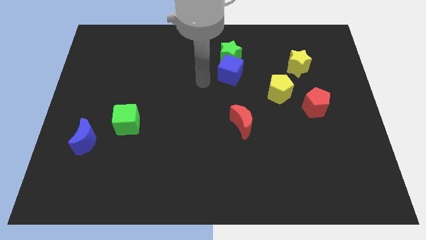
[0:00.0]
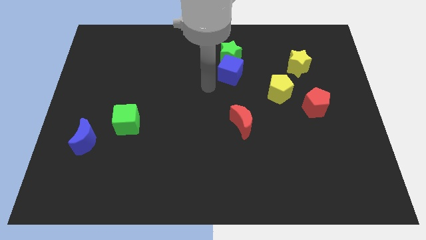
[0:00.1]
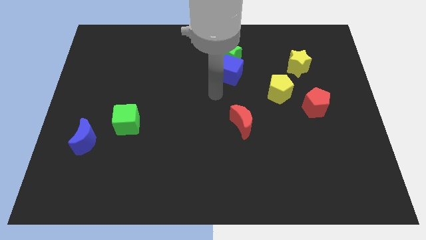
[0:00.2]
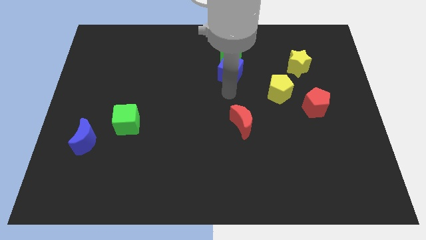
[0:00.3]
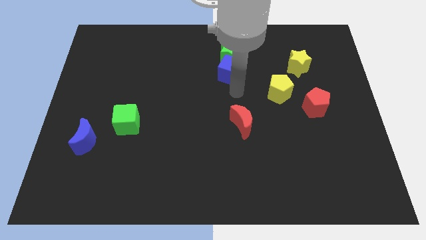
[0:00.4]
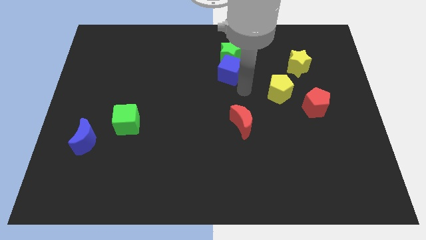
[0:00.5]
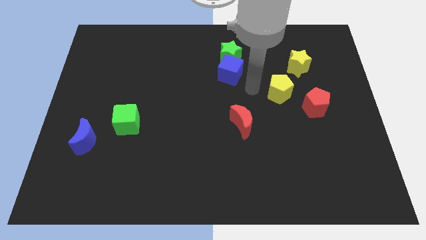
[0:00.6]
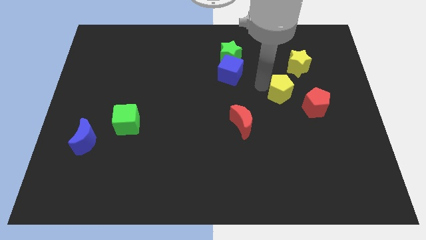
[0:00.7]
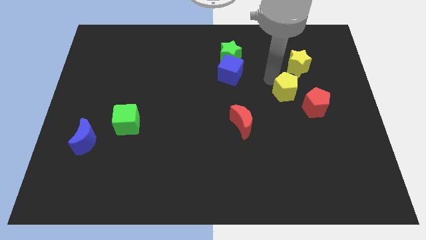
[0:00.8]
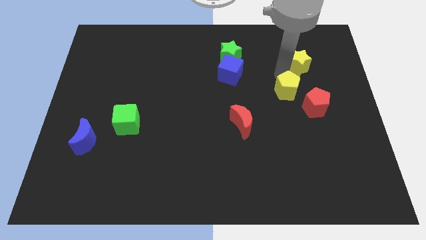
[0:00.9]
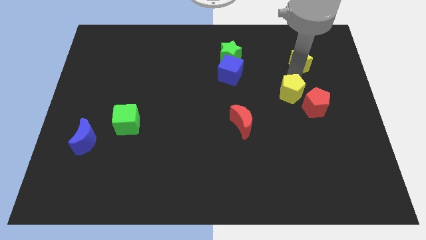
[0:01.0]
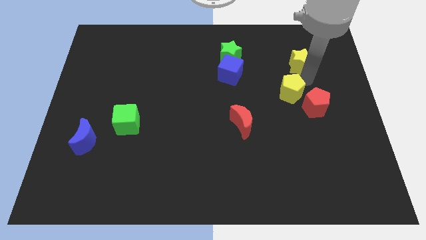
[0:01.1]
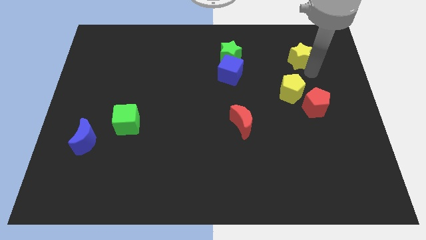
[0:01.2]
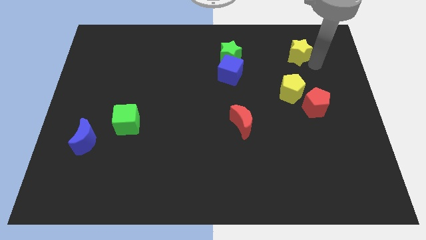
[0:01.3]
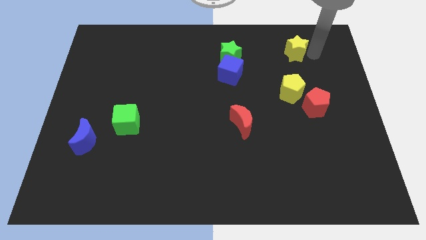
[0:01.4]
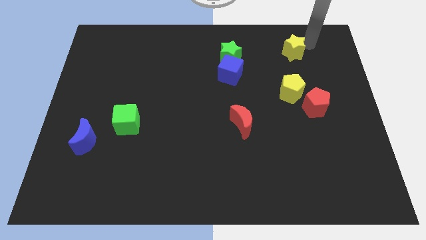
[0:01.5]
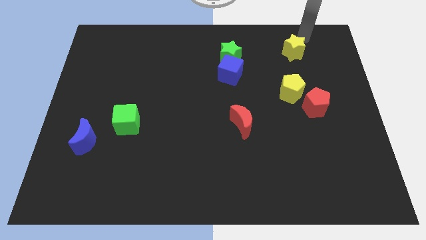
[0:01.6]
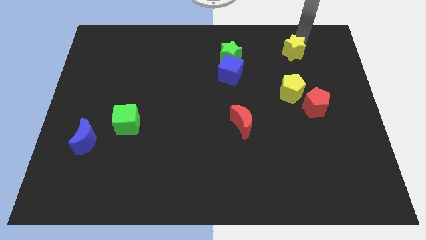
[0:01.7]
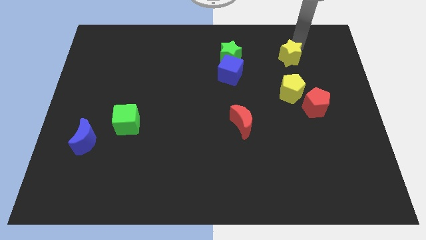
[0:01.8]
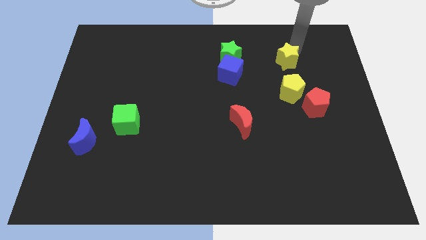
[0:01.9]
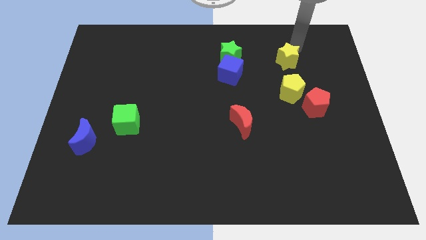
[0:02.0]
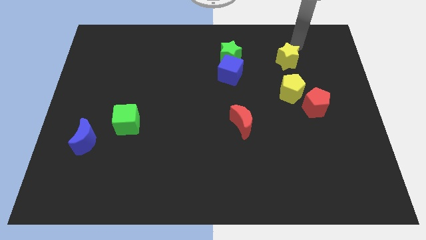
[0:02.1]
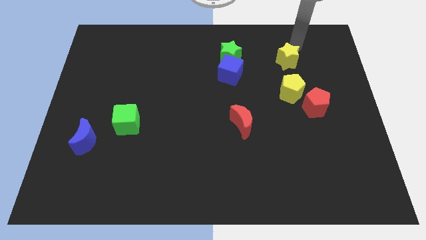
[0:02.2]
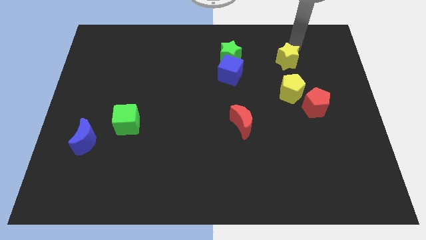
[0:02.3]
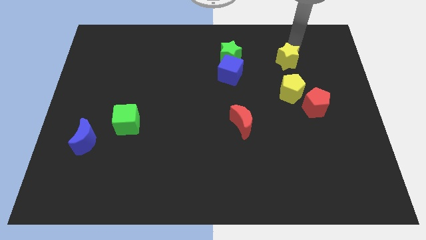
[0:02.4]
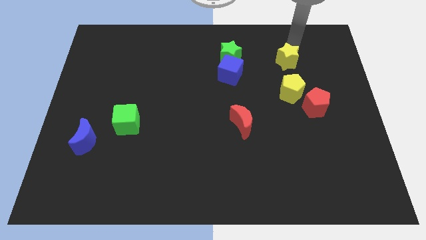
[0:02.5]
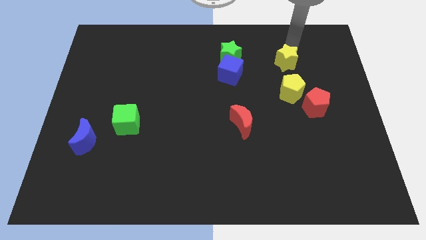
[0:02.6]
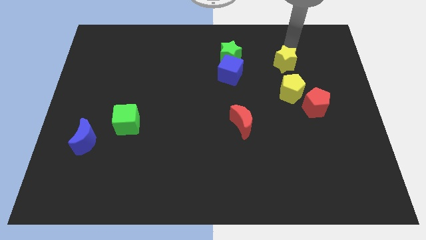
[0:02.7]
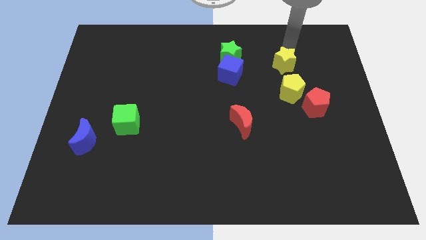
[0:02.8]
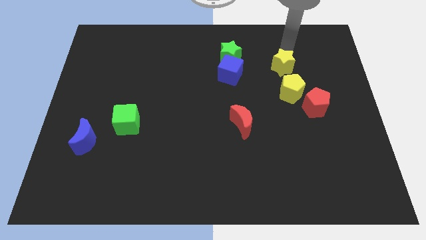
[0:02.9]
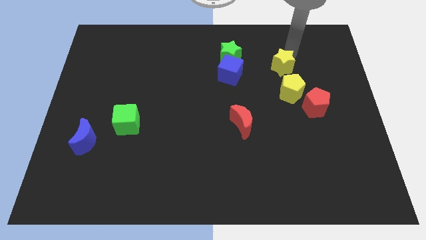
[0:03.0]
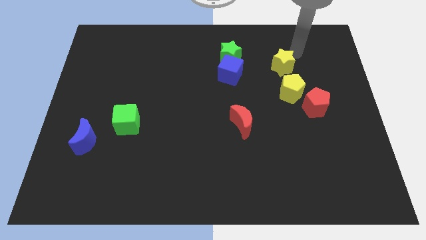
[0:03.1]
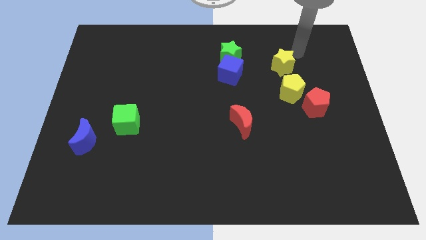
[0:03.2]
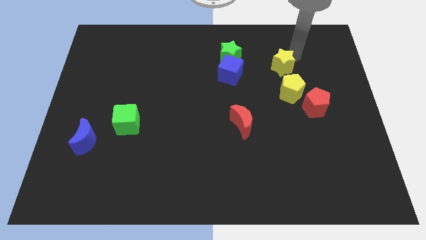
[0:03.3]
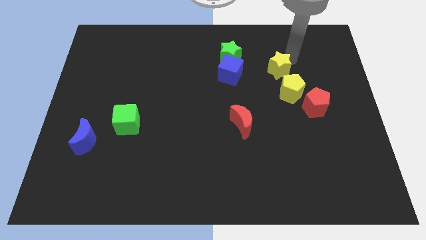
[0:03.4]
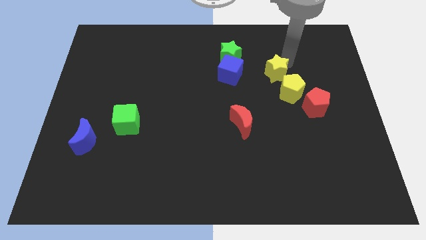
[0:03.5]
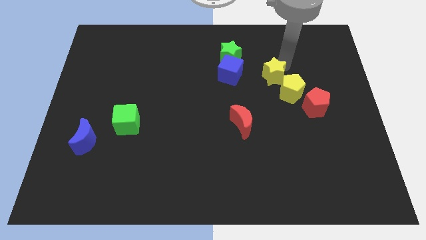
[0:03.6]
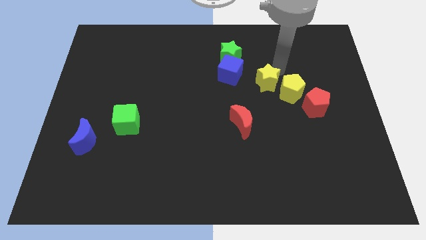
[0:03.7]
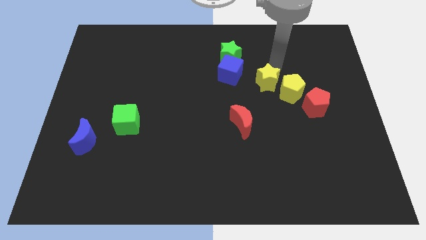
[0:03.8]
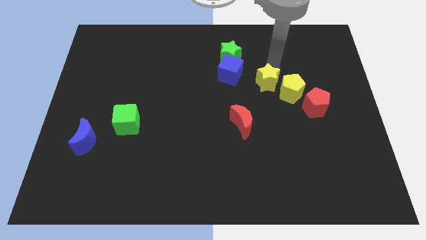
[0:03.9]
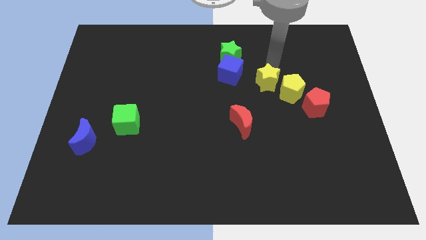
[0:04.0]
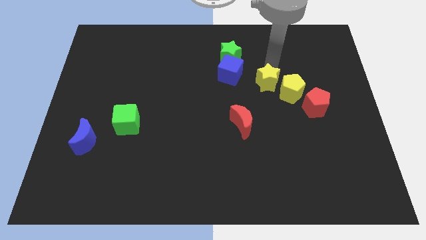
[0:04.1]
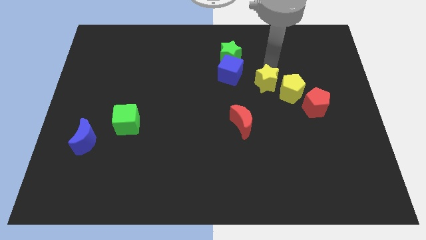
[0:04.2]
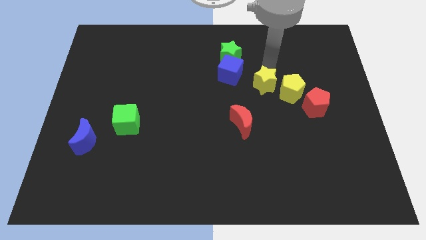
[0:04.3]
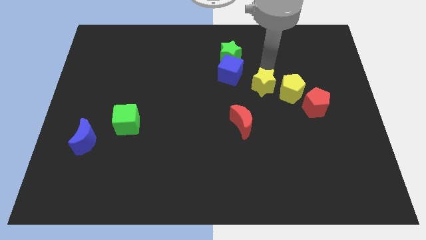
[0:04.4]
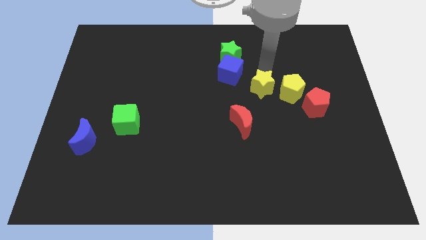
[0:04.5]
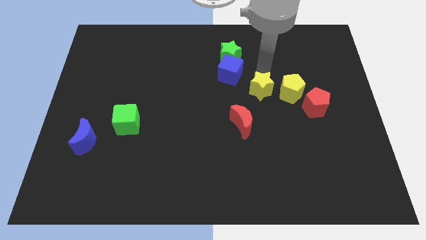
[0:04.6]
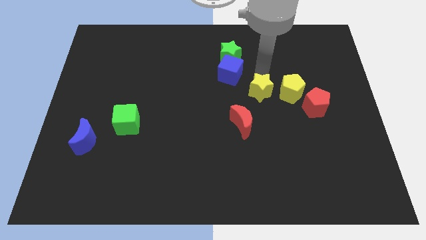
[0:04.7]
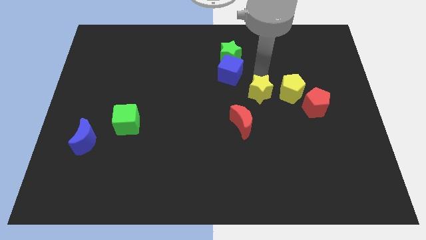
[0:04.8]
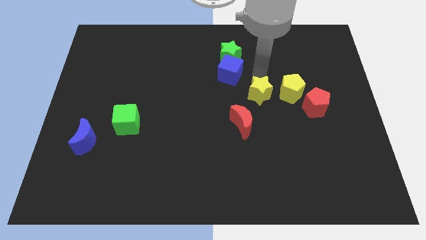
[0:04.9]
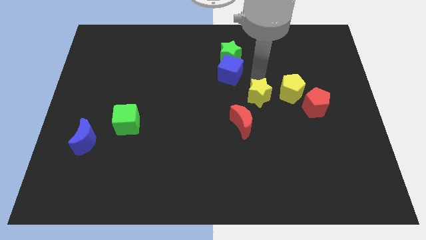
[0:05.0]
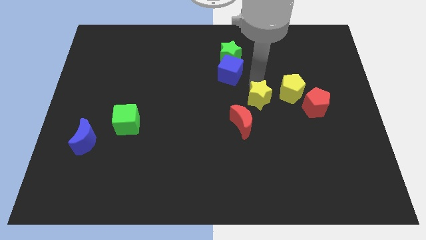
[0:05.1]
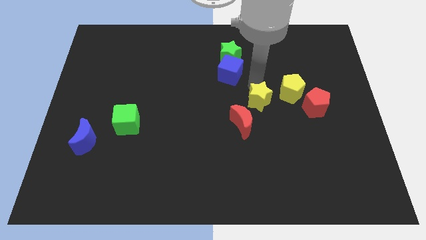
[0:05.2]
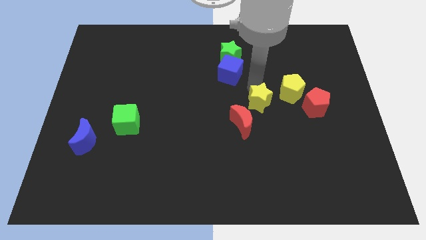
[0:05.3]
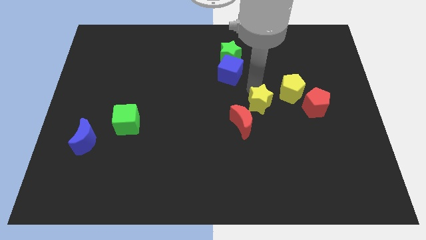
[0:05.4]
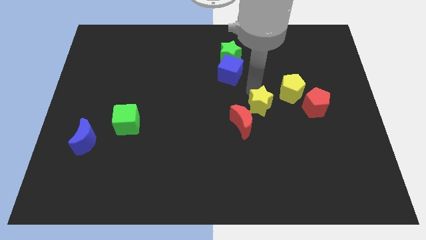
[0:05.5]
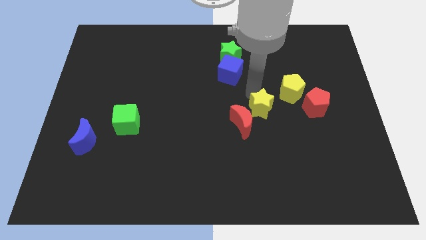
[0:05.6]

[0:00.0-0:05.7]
move the yellow star right of the red moon

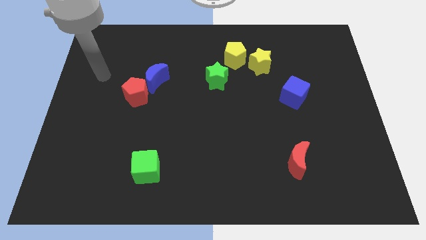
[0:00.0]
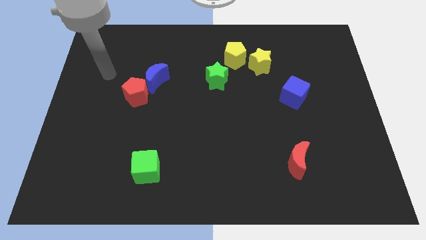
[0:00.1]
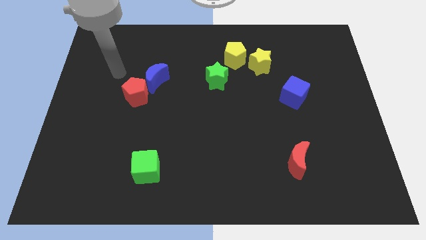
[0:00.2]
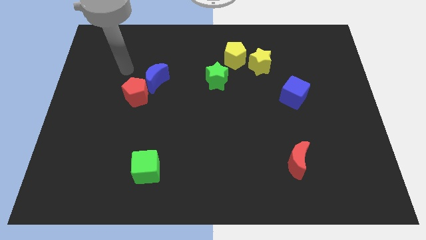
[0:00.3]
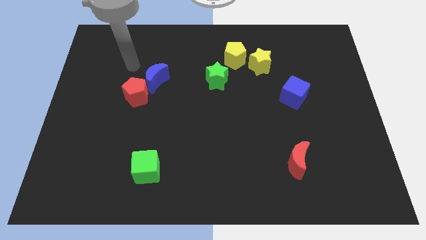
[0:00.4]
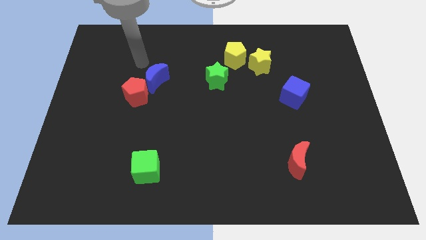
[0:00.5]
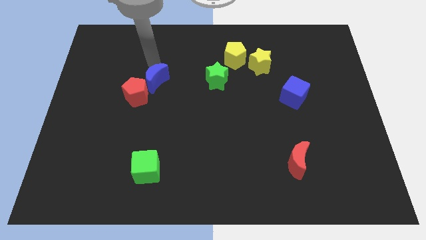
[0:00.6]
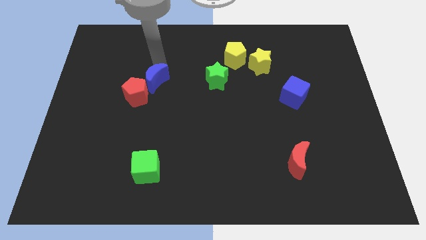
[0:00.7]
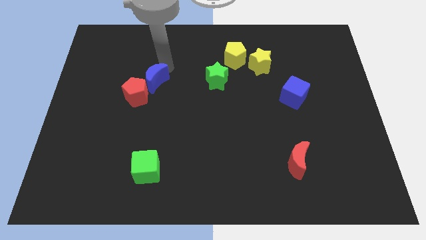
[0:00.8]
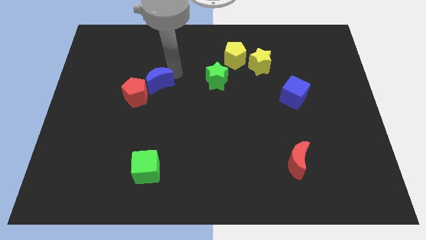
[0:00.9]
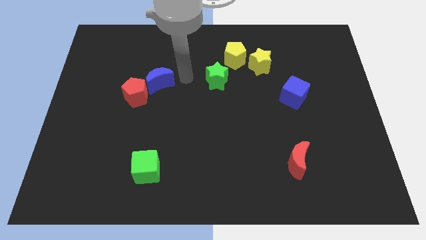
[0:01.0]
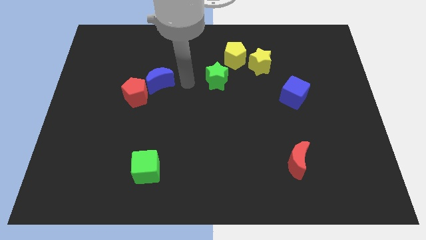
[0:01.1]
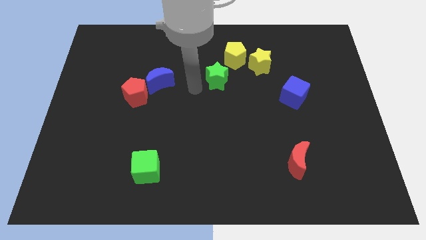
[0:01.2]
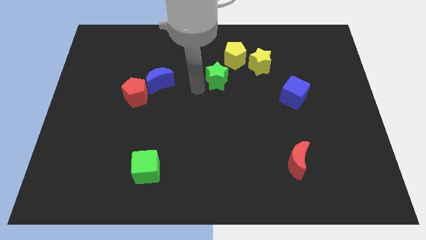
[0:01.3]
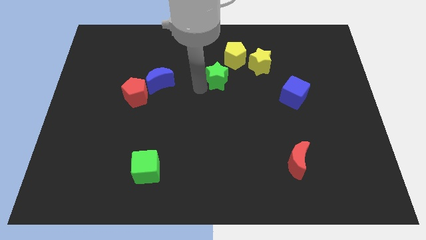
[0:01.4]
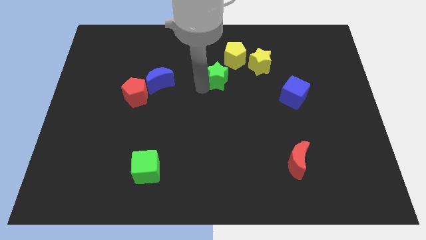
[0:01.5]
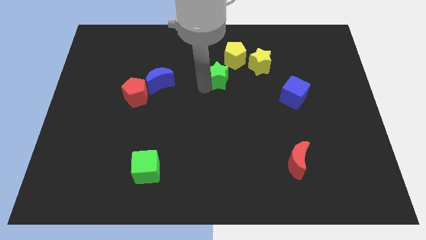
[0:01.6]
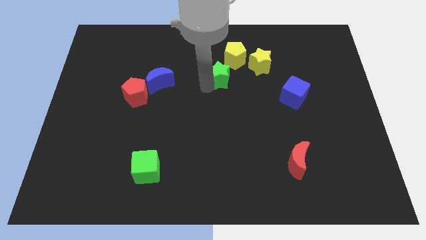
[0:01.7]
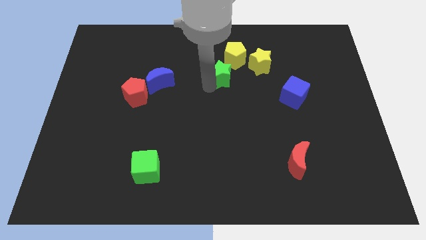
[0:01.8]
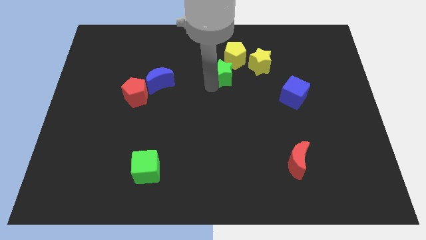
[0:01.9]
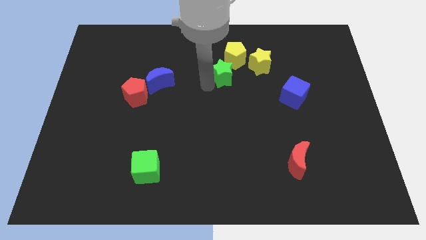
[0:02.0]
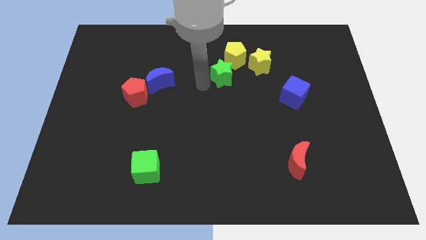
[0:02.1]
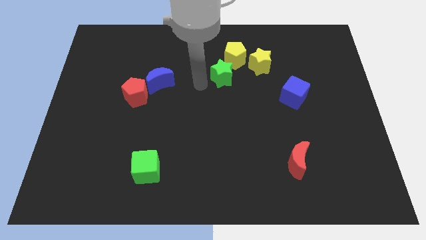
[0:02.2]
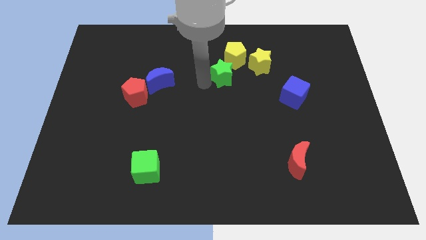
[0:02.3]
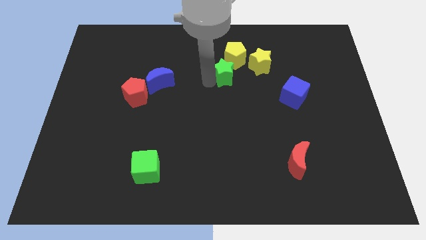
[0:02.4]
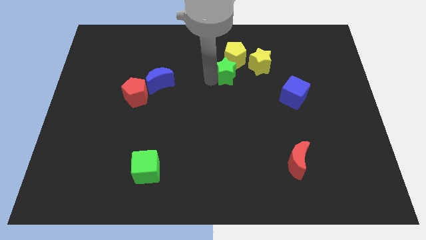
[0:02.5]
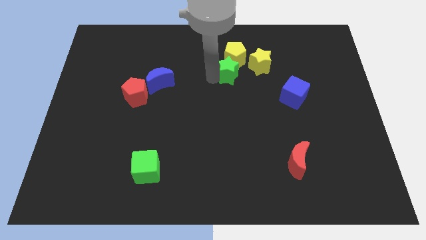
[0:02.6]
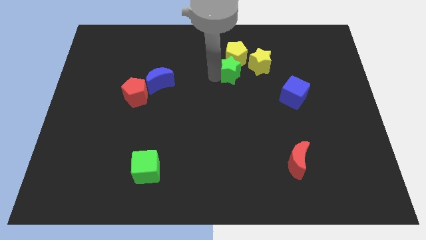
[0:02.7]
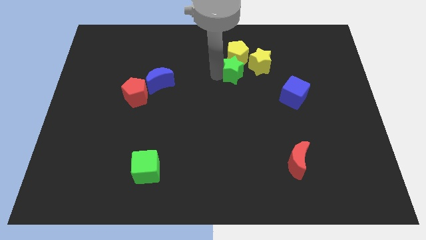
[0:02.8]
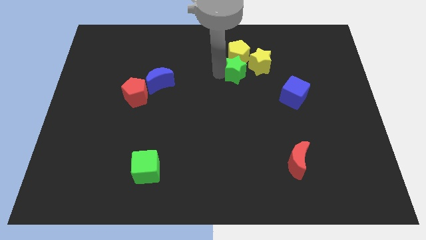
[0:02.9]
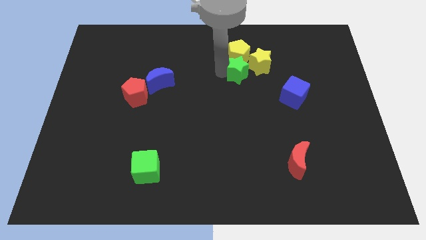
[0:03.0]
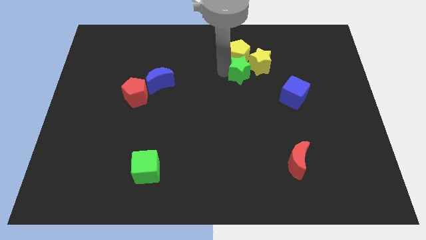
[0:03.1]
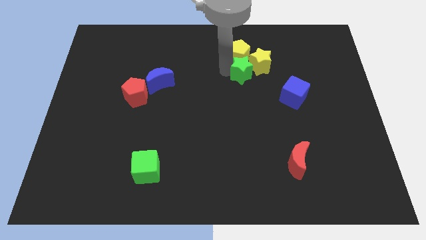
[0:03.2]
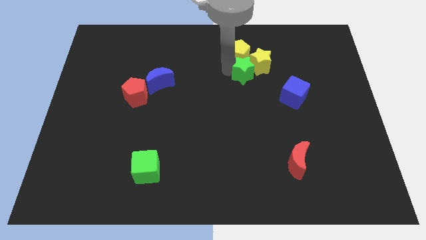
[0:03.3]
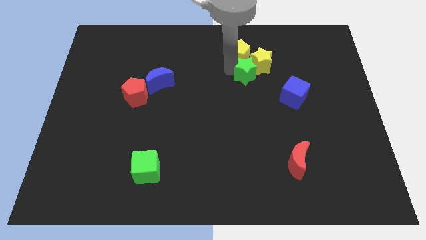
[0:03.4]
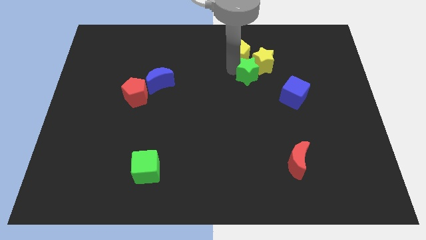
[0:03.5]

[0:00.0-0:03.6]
push the green star to the top left side of the blue cube
